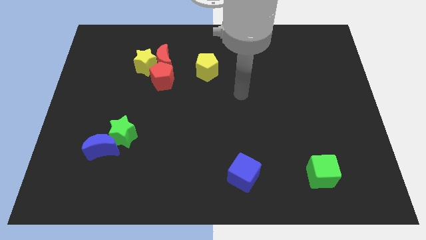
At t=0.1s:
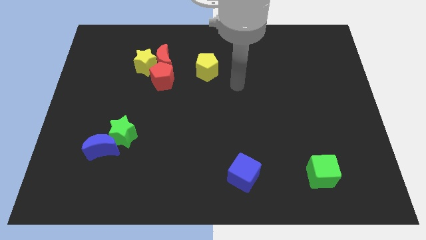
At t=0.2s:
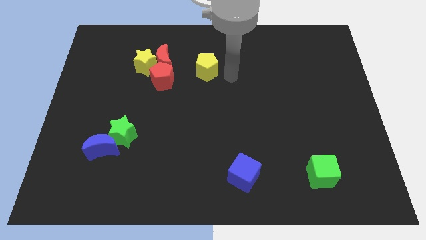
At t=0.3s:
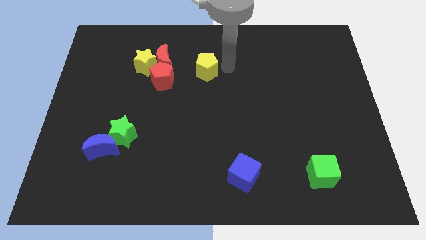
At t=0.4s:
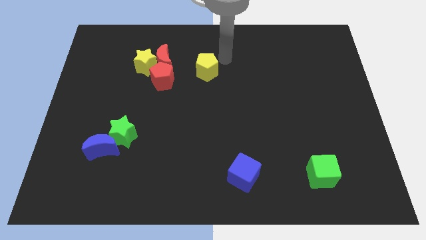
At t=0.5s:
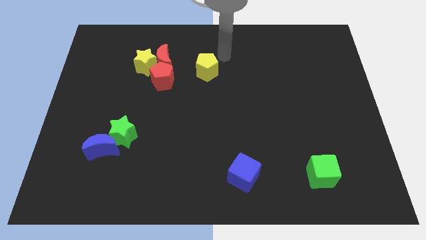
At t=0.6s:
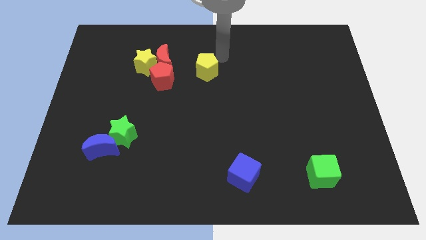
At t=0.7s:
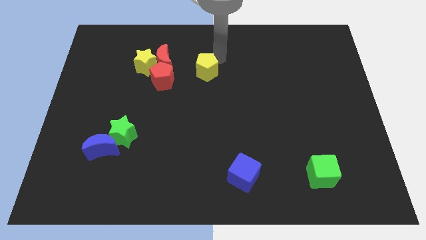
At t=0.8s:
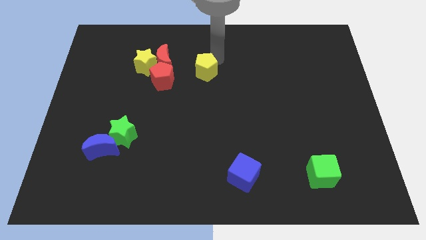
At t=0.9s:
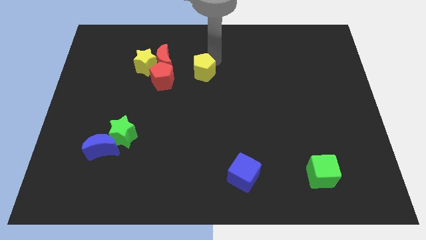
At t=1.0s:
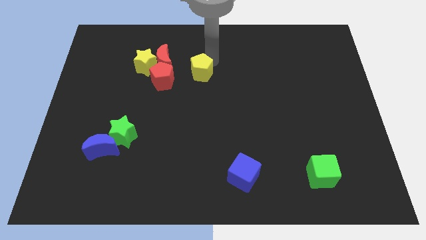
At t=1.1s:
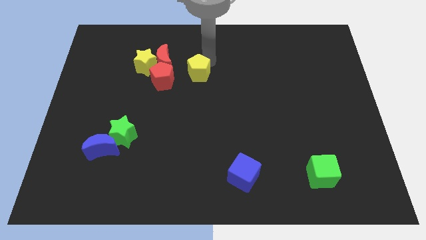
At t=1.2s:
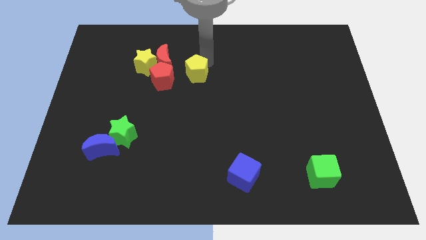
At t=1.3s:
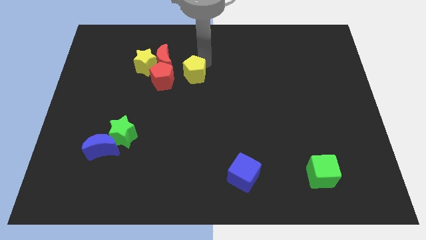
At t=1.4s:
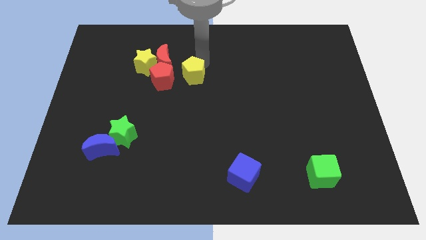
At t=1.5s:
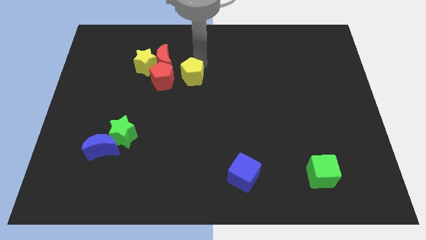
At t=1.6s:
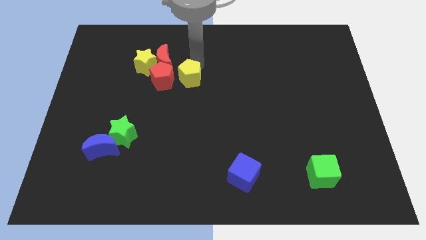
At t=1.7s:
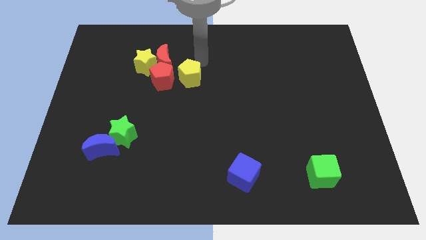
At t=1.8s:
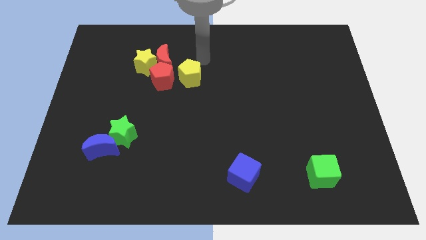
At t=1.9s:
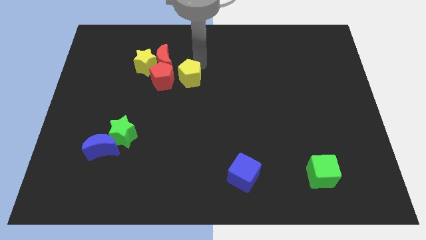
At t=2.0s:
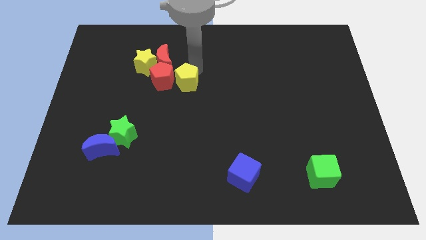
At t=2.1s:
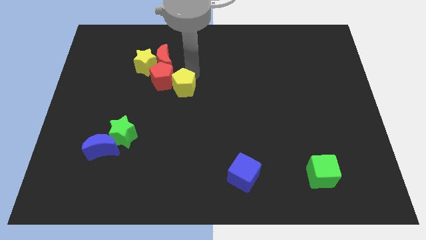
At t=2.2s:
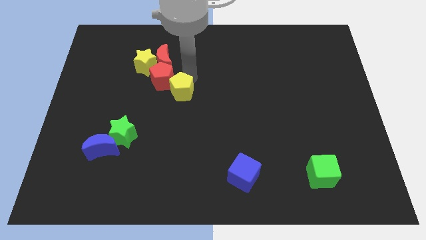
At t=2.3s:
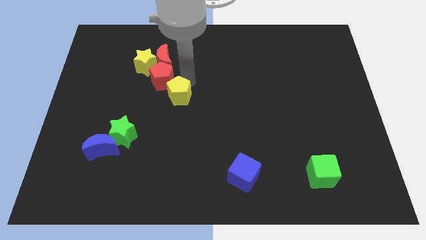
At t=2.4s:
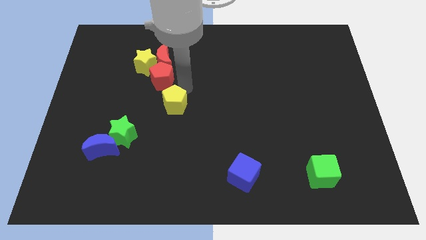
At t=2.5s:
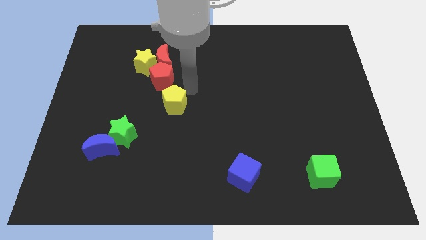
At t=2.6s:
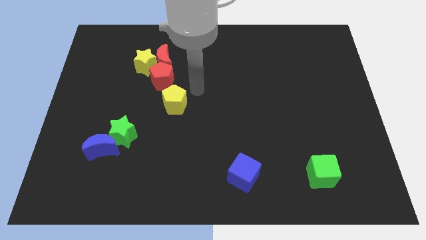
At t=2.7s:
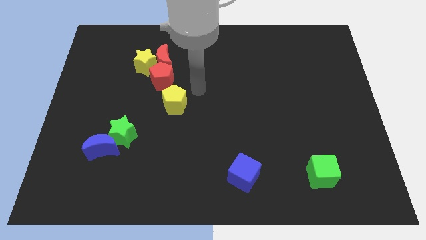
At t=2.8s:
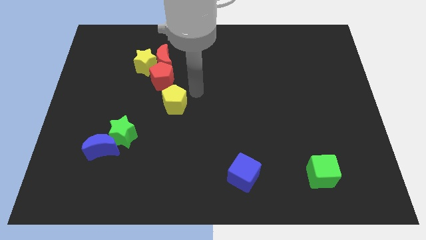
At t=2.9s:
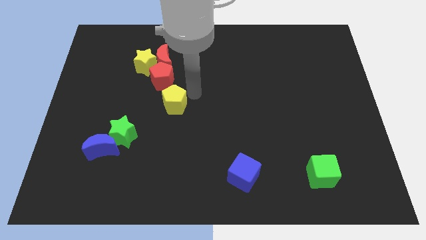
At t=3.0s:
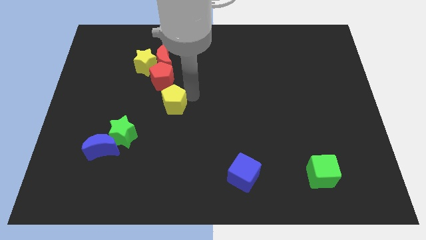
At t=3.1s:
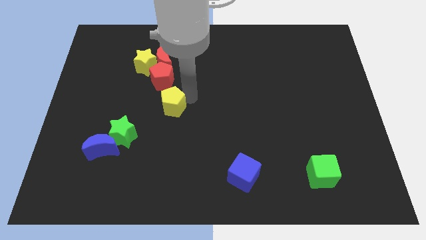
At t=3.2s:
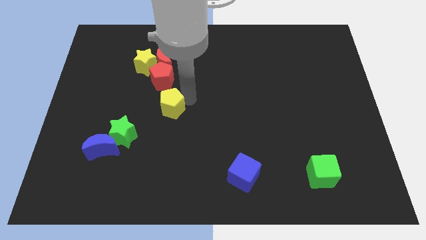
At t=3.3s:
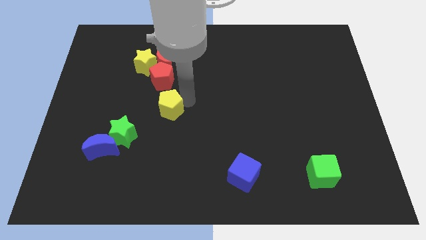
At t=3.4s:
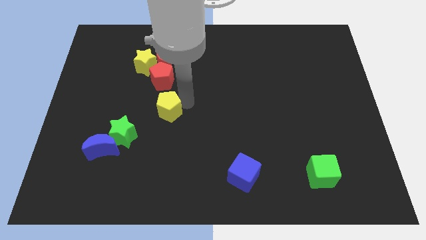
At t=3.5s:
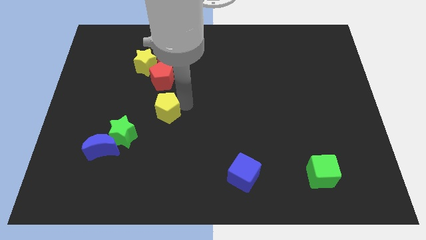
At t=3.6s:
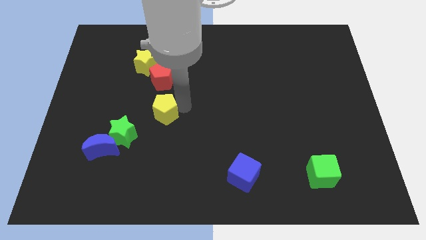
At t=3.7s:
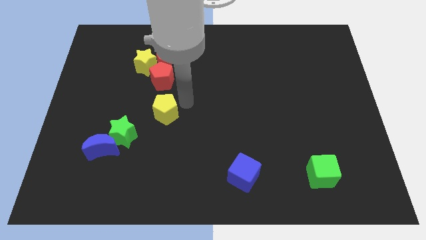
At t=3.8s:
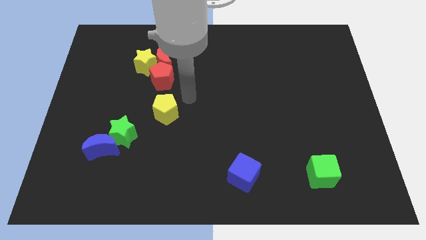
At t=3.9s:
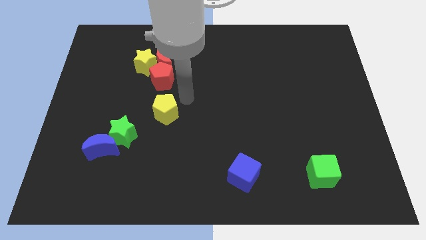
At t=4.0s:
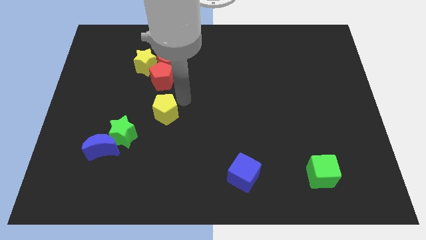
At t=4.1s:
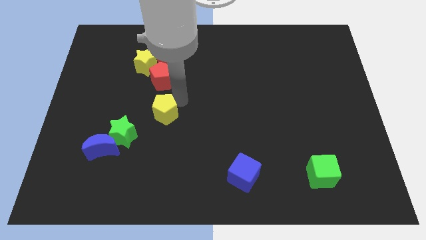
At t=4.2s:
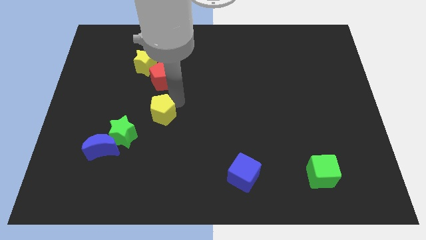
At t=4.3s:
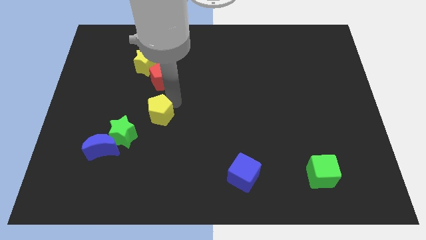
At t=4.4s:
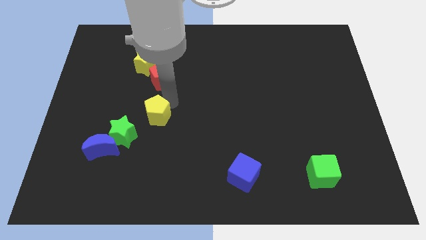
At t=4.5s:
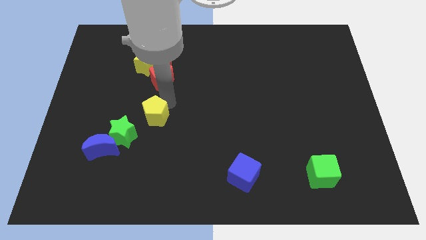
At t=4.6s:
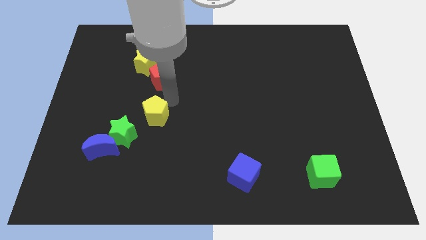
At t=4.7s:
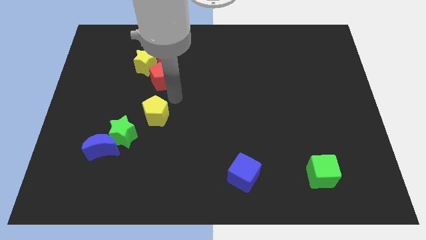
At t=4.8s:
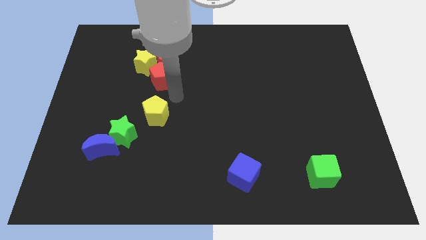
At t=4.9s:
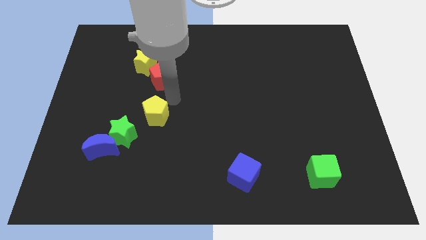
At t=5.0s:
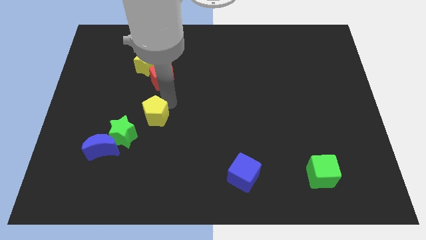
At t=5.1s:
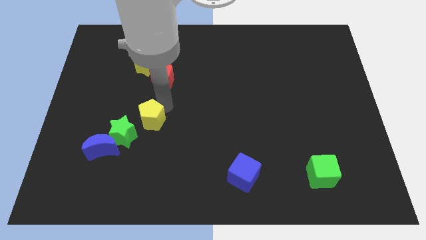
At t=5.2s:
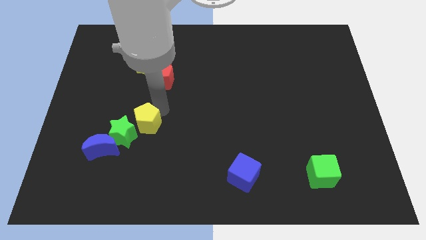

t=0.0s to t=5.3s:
slide the yellow pentagon close to the green star

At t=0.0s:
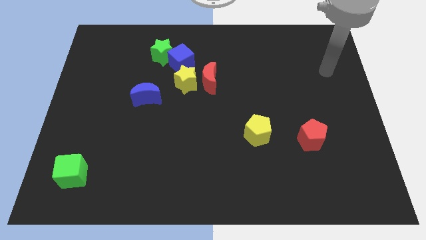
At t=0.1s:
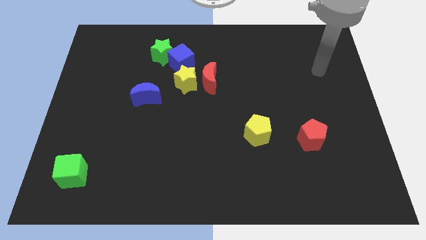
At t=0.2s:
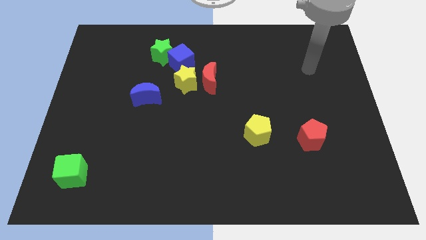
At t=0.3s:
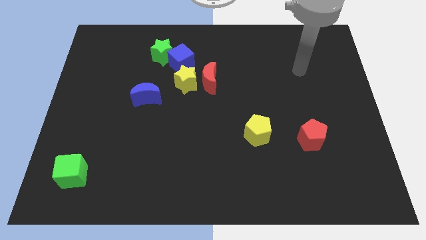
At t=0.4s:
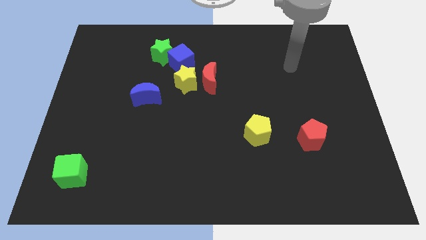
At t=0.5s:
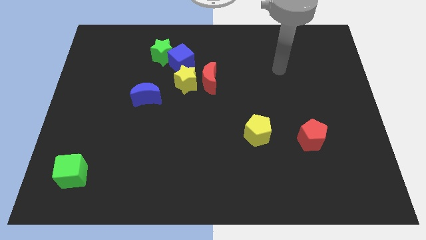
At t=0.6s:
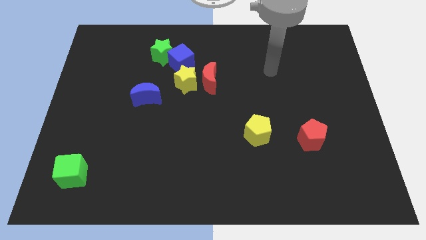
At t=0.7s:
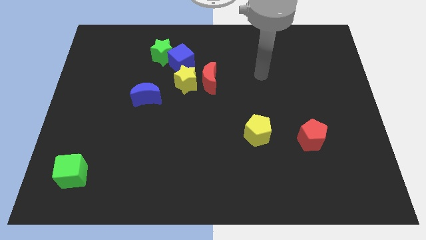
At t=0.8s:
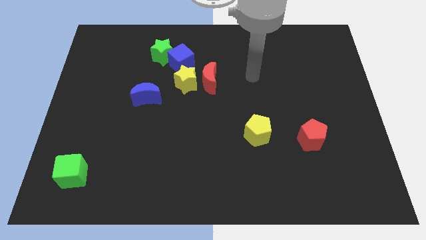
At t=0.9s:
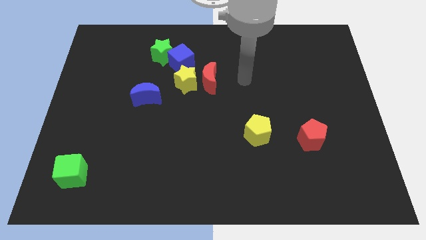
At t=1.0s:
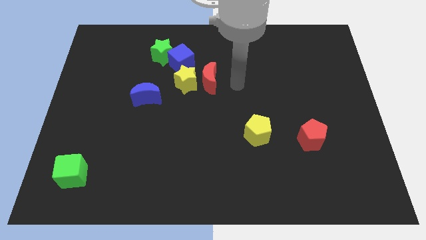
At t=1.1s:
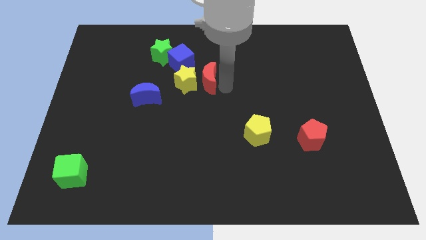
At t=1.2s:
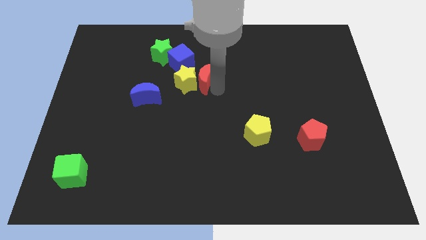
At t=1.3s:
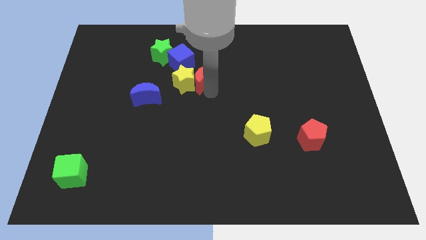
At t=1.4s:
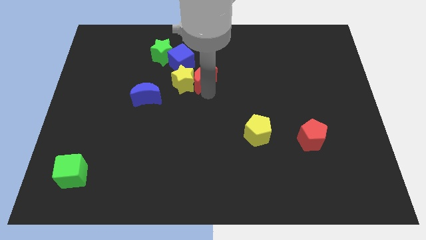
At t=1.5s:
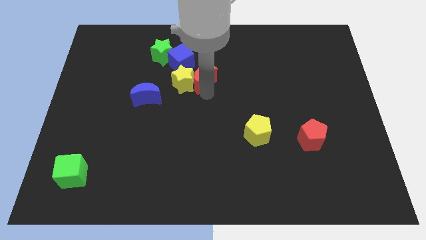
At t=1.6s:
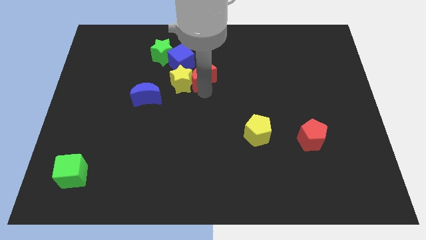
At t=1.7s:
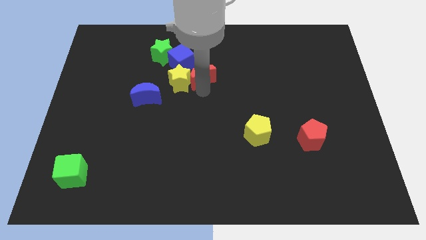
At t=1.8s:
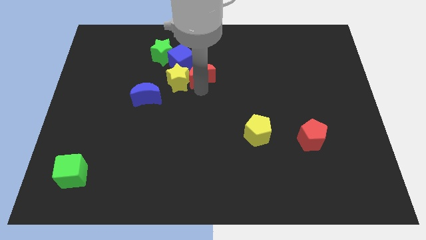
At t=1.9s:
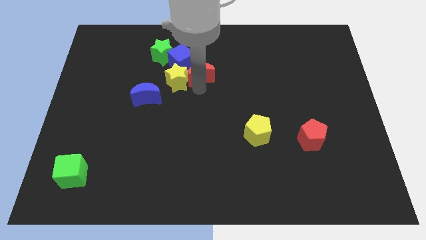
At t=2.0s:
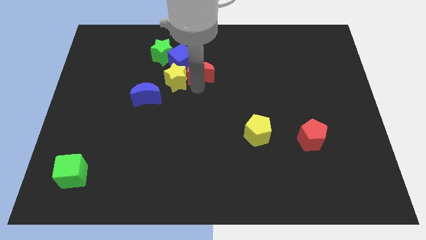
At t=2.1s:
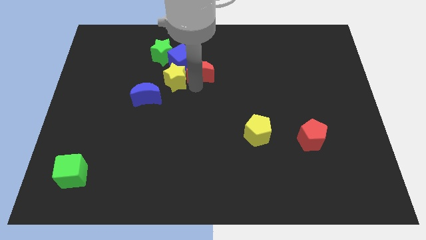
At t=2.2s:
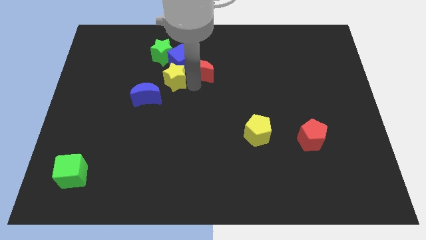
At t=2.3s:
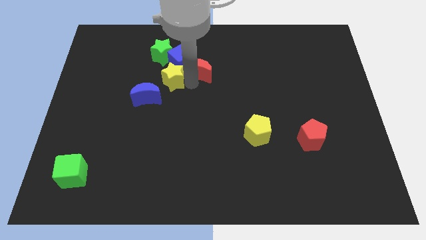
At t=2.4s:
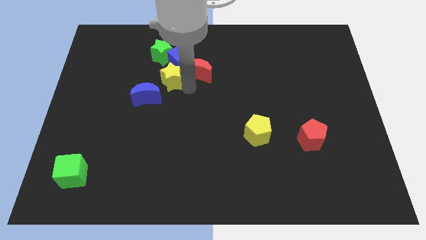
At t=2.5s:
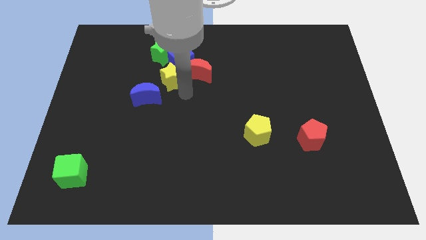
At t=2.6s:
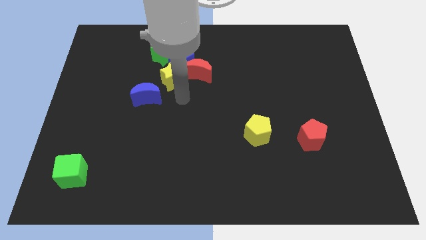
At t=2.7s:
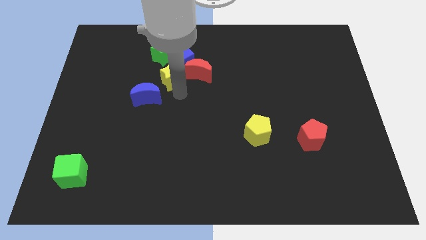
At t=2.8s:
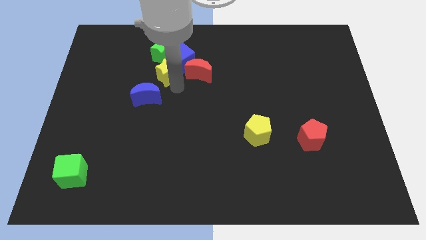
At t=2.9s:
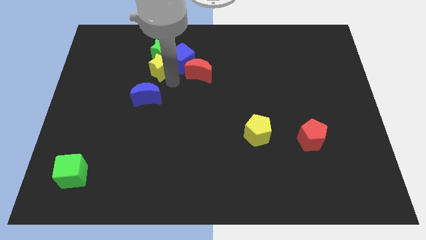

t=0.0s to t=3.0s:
slide the yellow star close to the green star
